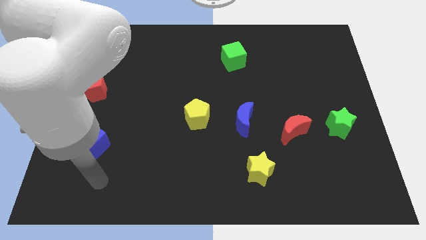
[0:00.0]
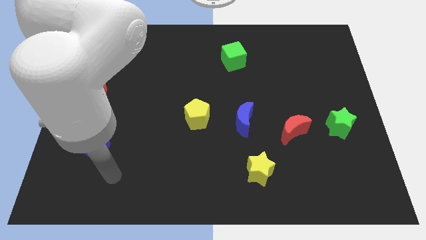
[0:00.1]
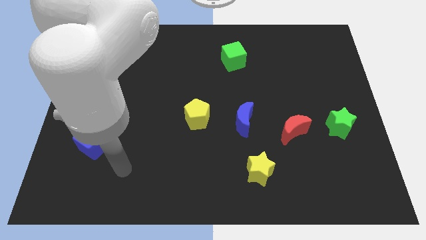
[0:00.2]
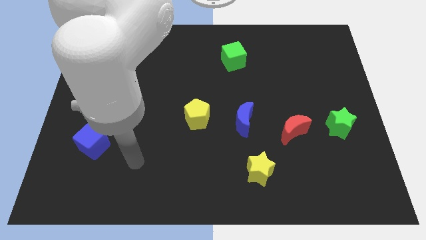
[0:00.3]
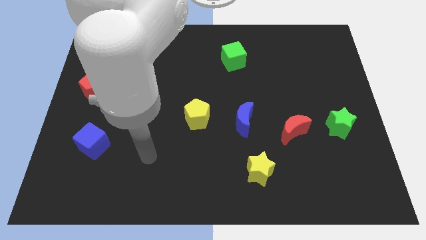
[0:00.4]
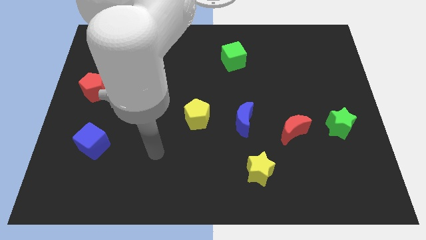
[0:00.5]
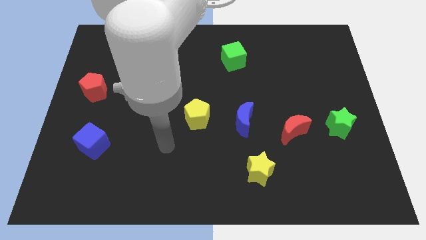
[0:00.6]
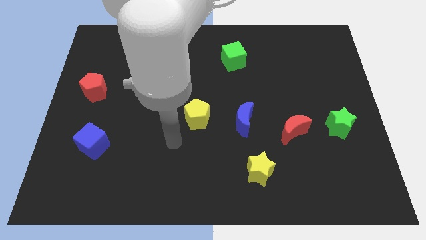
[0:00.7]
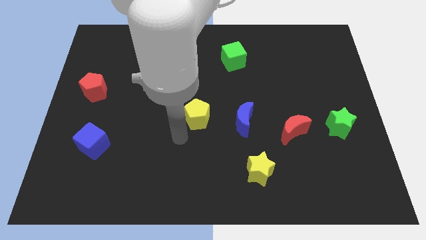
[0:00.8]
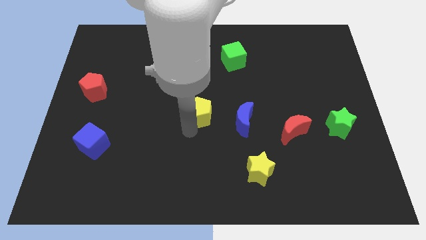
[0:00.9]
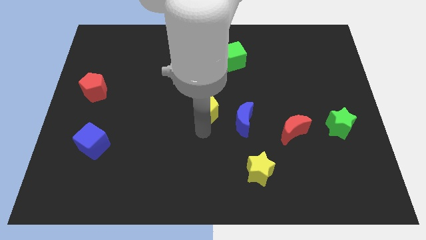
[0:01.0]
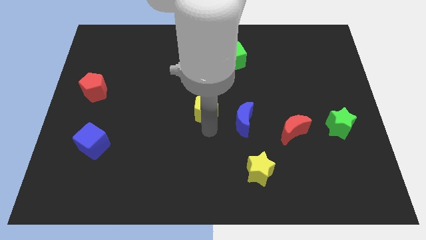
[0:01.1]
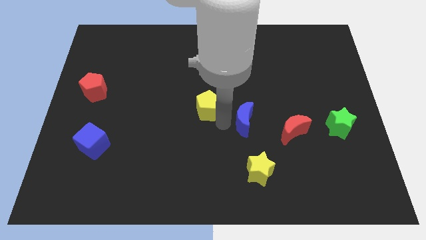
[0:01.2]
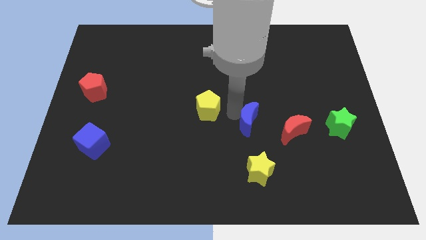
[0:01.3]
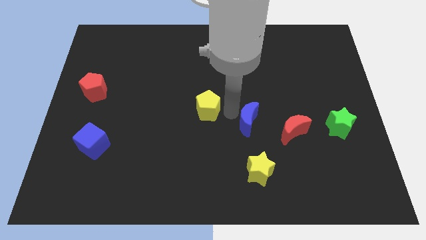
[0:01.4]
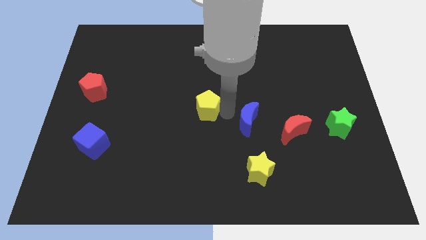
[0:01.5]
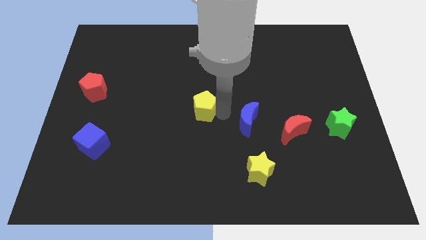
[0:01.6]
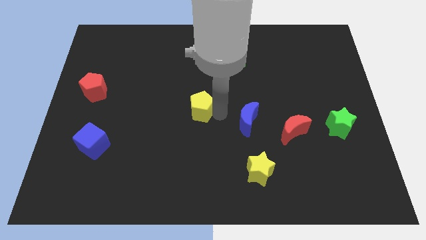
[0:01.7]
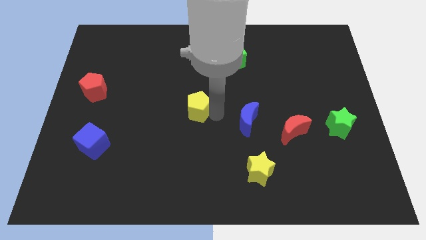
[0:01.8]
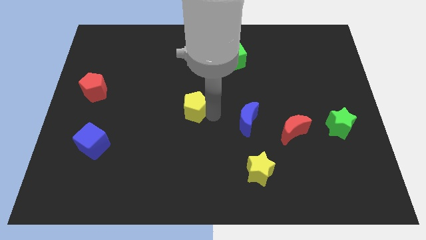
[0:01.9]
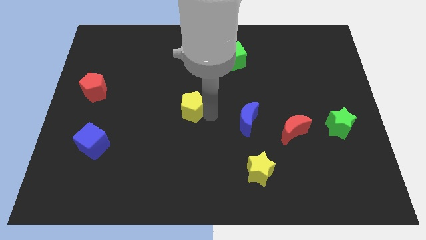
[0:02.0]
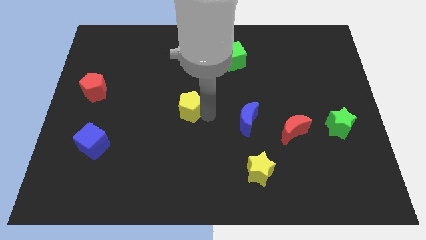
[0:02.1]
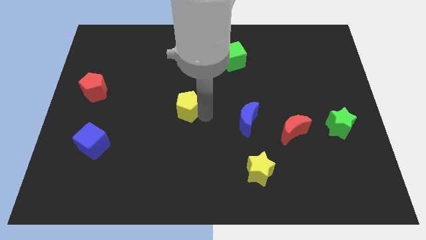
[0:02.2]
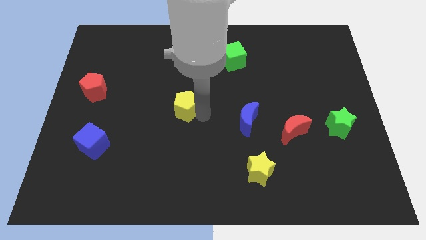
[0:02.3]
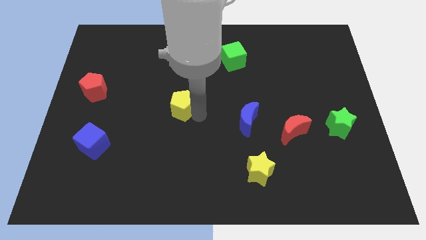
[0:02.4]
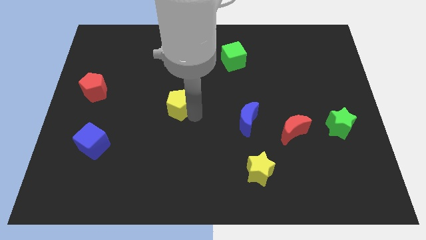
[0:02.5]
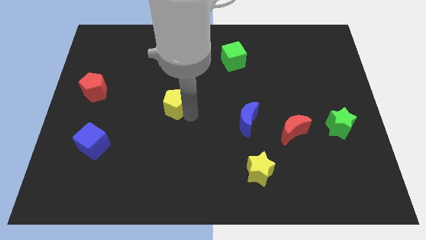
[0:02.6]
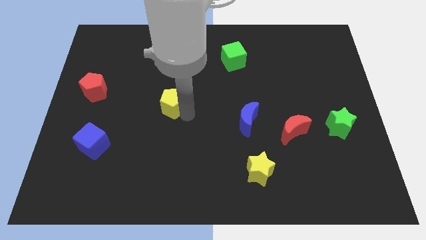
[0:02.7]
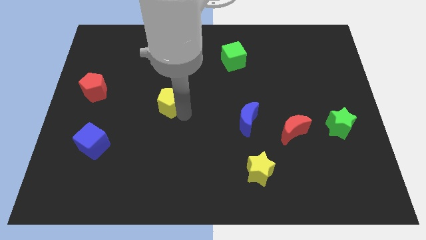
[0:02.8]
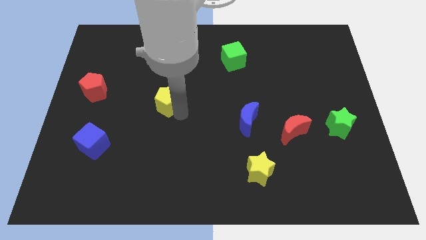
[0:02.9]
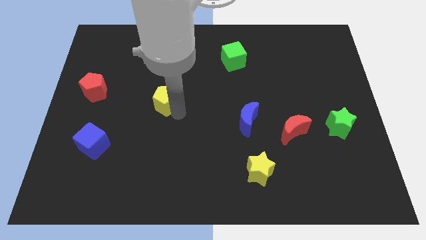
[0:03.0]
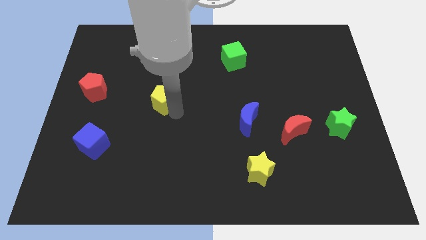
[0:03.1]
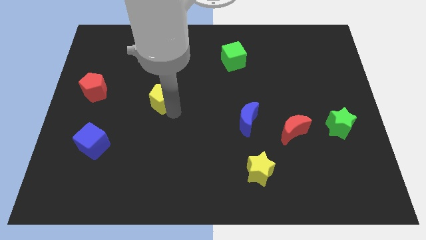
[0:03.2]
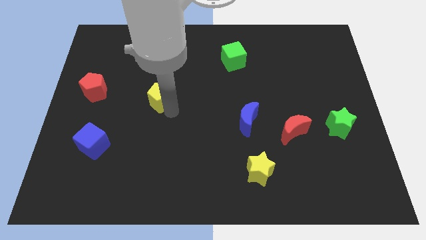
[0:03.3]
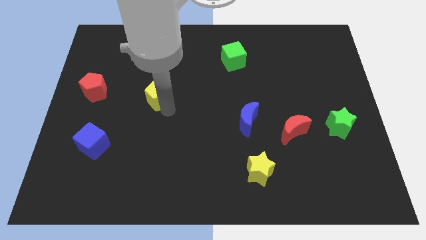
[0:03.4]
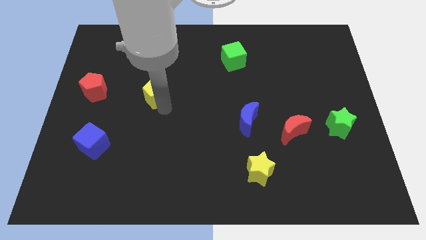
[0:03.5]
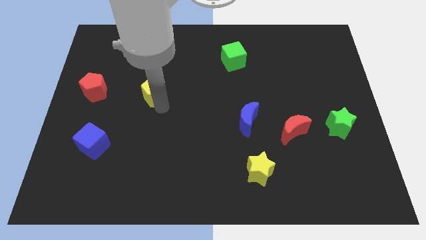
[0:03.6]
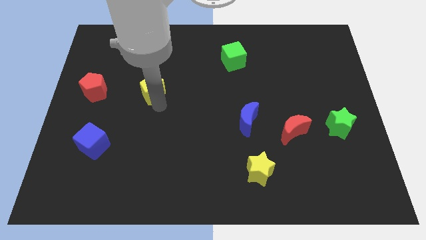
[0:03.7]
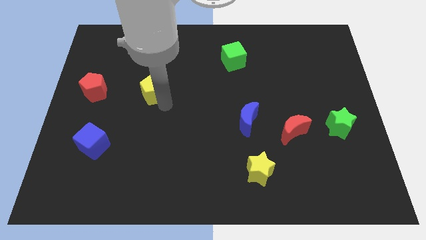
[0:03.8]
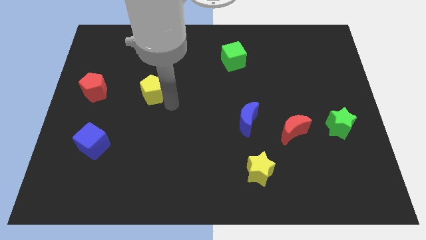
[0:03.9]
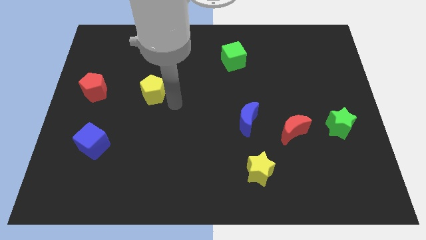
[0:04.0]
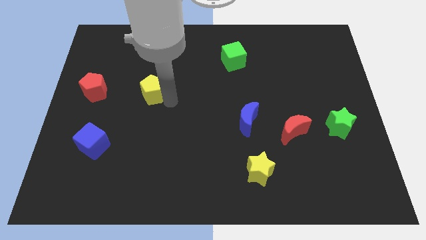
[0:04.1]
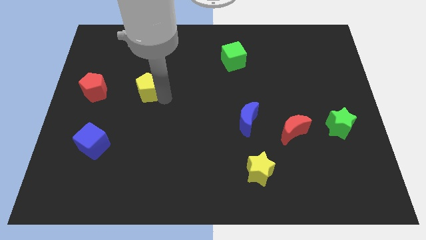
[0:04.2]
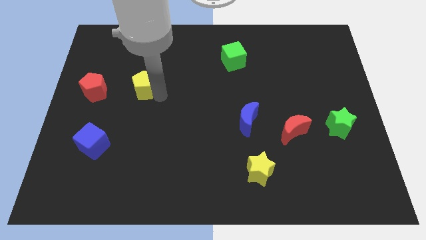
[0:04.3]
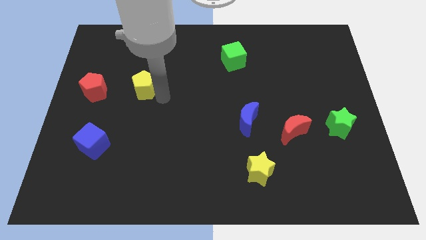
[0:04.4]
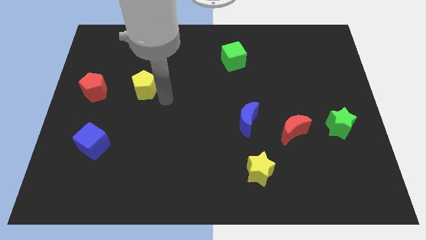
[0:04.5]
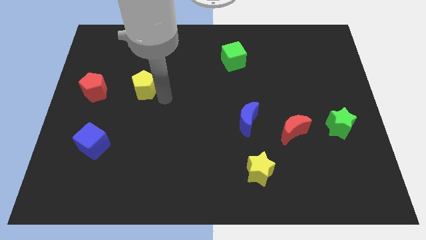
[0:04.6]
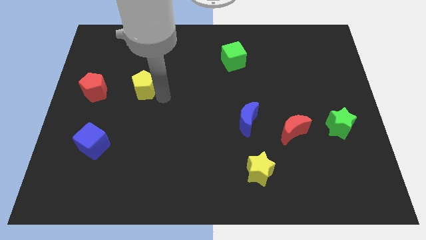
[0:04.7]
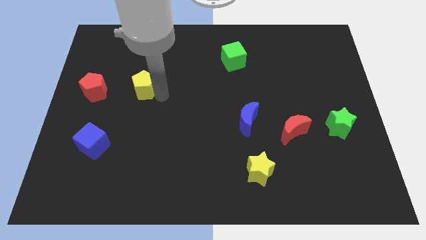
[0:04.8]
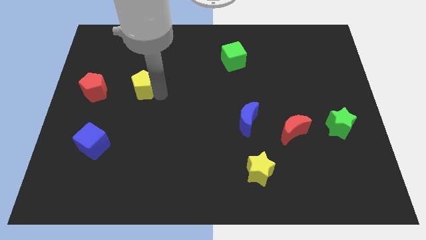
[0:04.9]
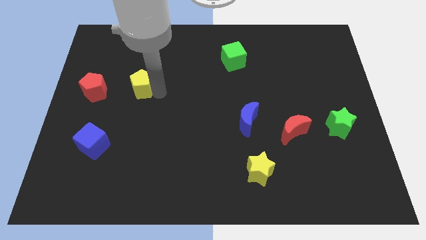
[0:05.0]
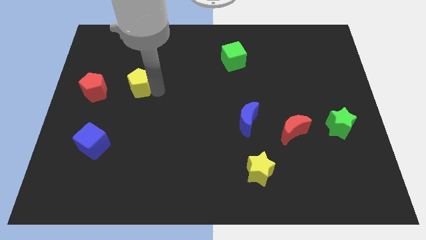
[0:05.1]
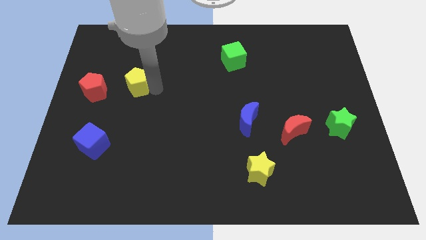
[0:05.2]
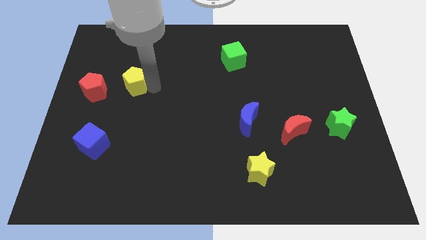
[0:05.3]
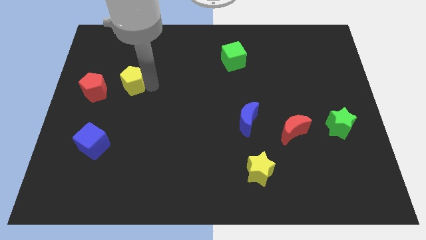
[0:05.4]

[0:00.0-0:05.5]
move the yellow pentagon diagonally up and to the right of the red pentagon

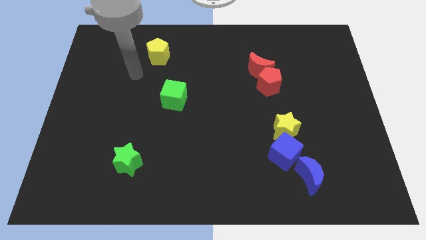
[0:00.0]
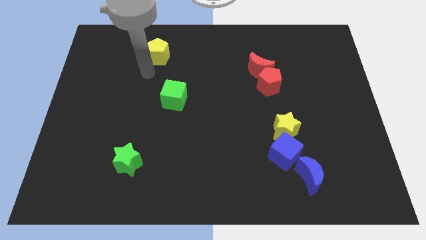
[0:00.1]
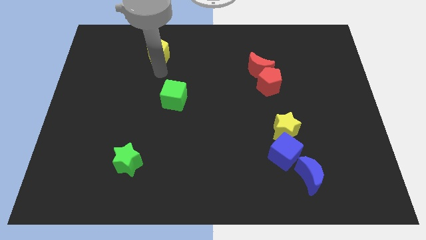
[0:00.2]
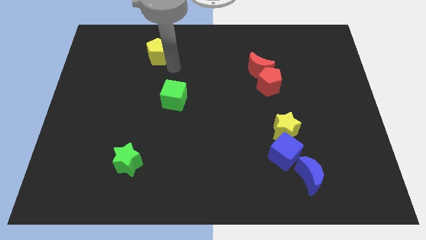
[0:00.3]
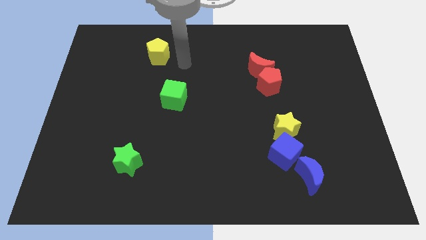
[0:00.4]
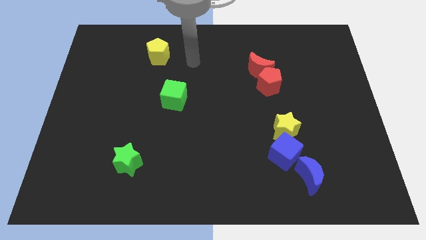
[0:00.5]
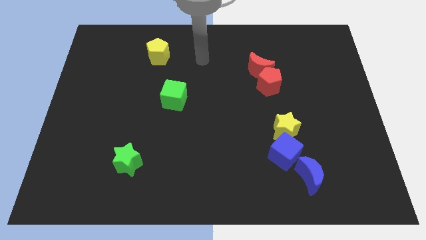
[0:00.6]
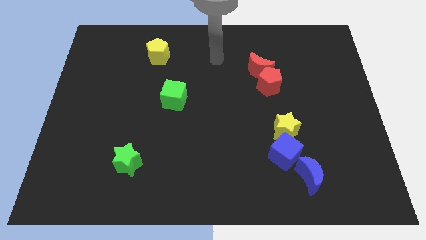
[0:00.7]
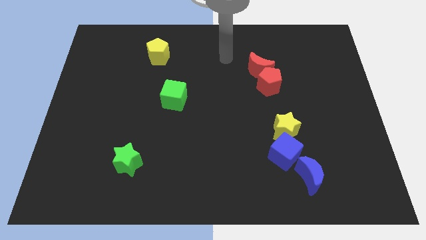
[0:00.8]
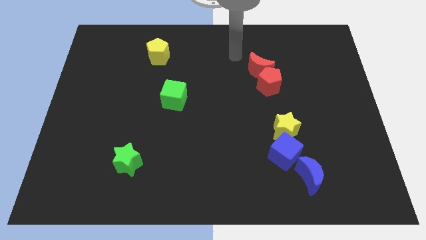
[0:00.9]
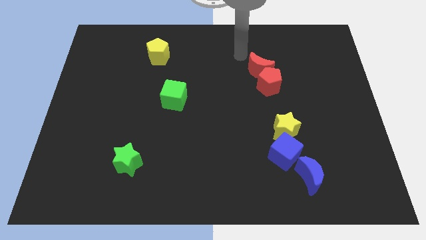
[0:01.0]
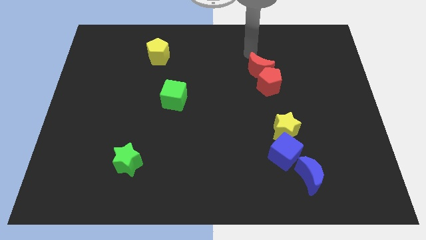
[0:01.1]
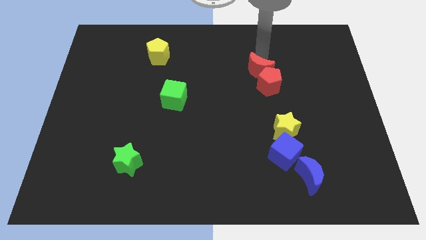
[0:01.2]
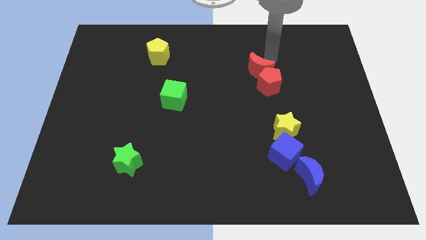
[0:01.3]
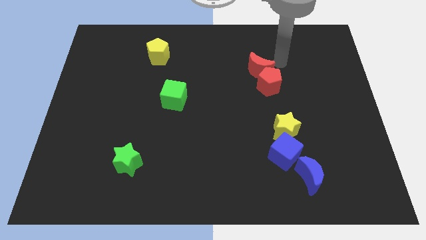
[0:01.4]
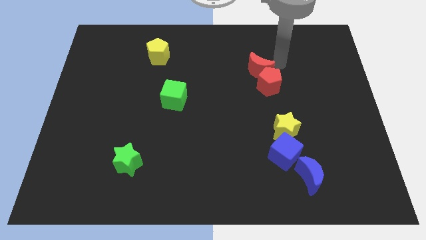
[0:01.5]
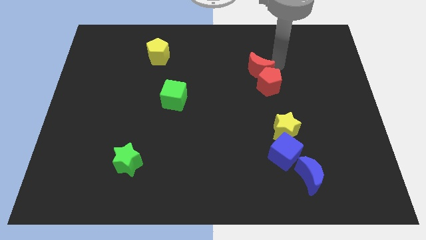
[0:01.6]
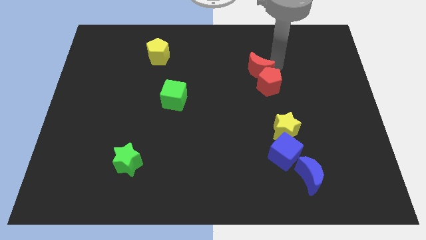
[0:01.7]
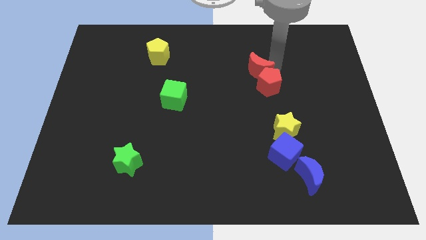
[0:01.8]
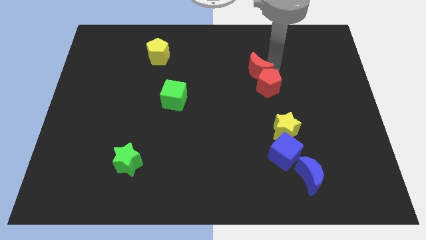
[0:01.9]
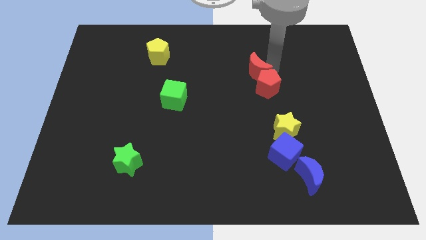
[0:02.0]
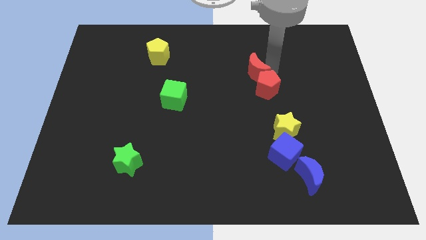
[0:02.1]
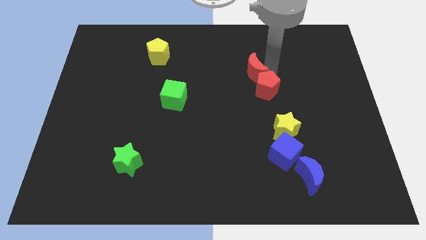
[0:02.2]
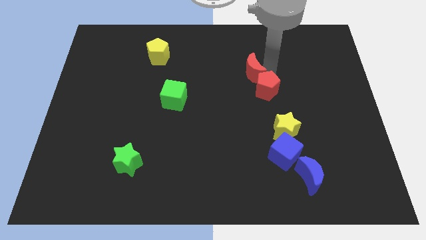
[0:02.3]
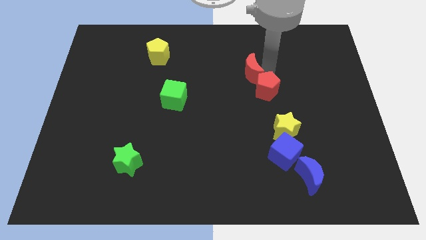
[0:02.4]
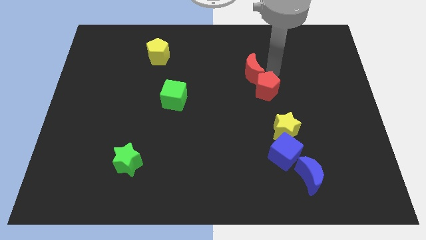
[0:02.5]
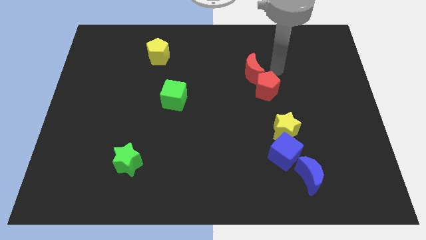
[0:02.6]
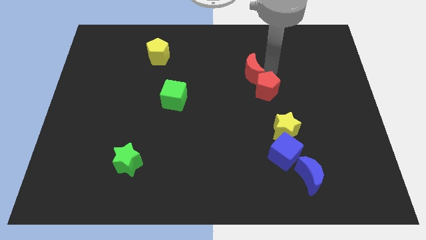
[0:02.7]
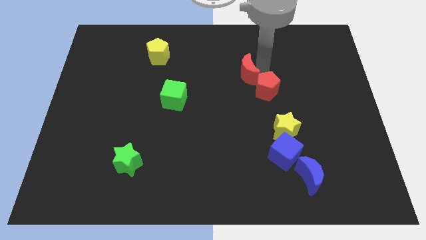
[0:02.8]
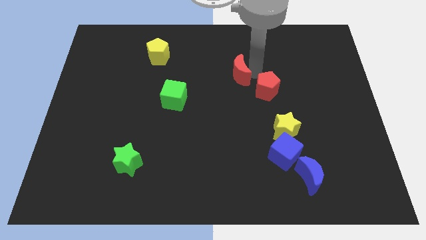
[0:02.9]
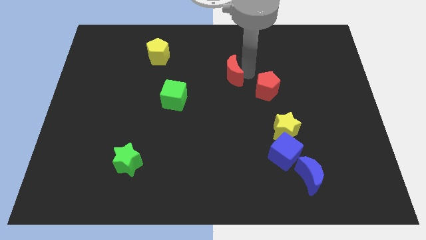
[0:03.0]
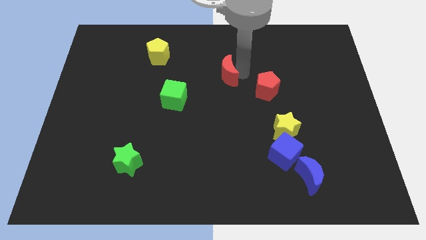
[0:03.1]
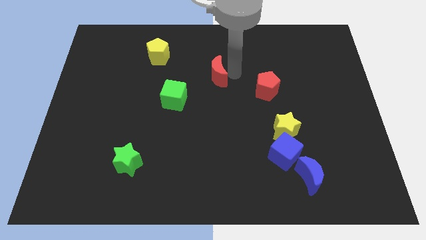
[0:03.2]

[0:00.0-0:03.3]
move the red moon to the top right side of the green cube
